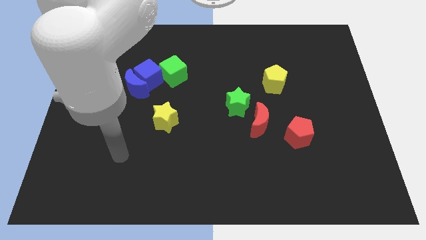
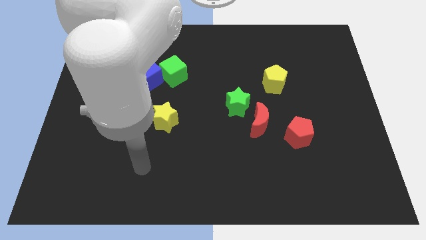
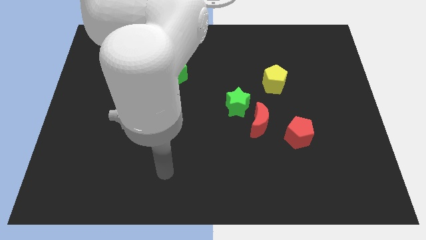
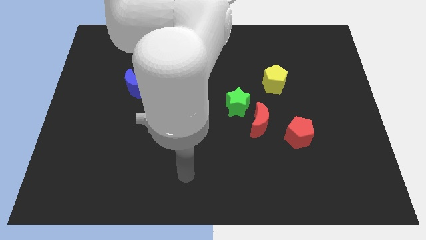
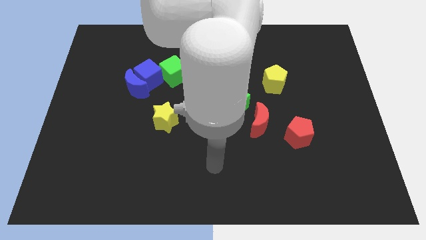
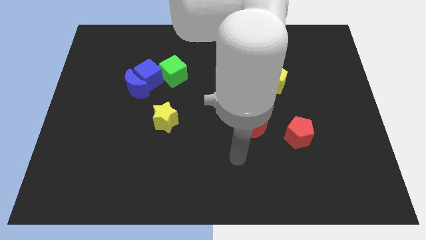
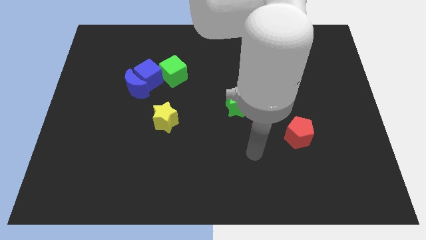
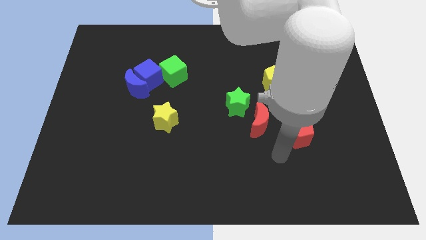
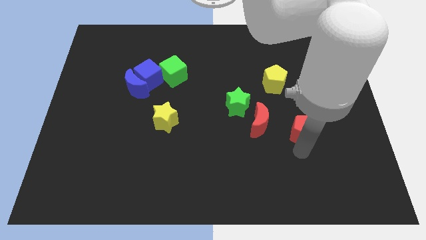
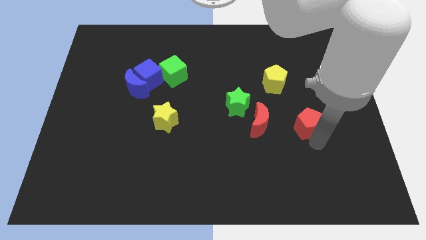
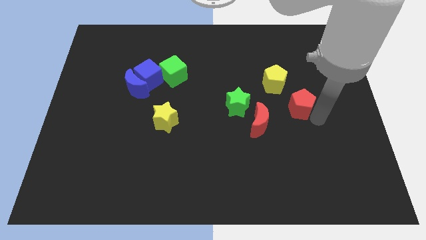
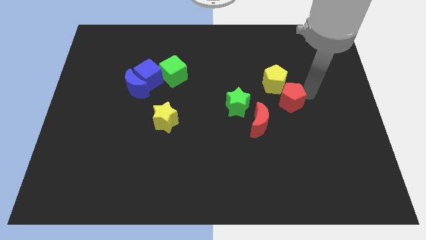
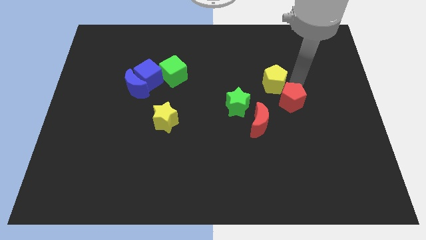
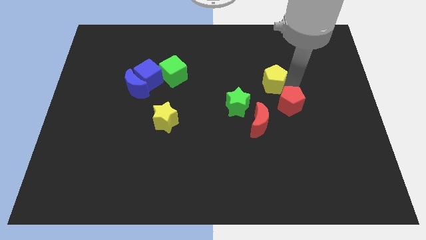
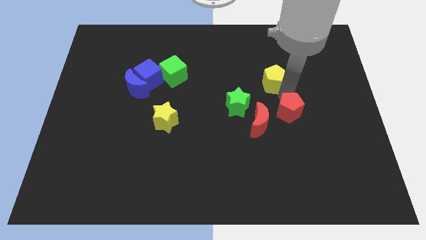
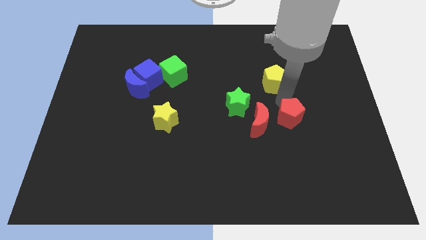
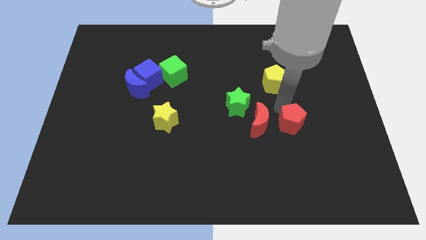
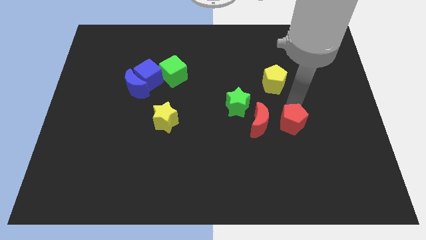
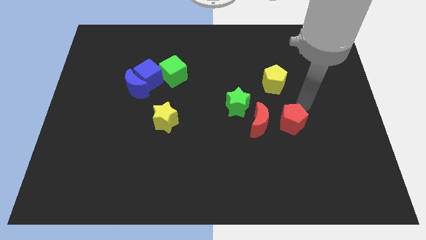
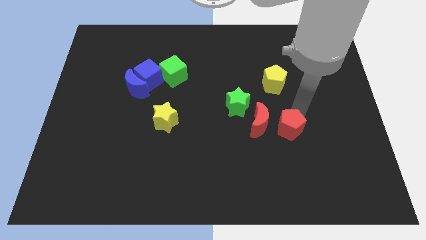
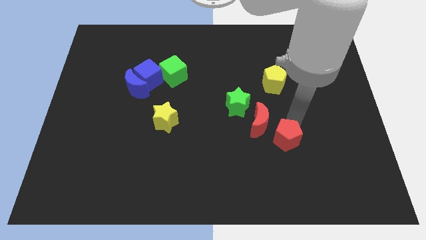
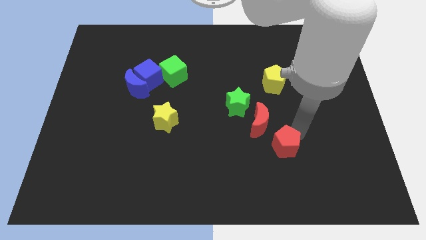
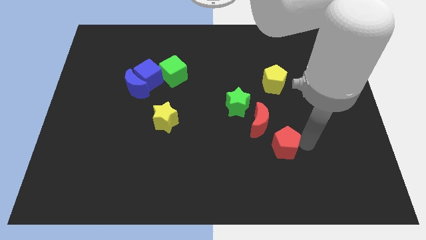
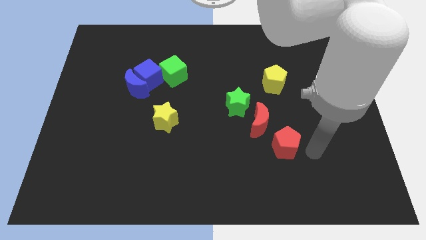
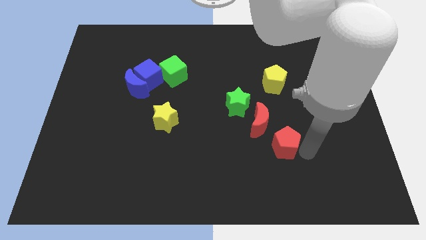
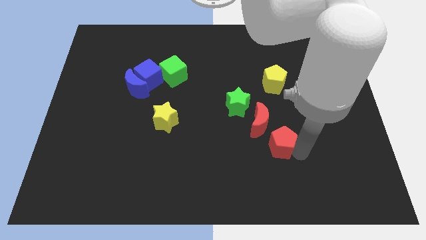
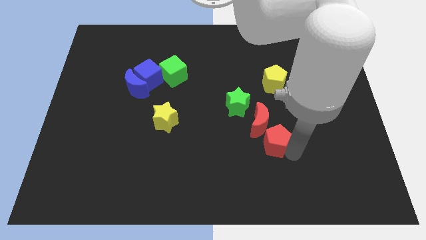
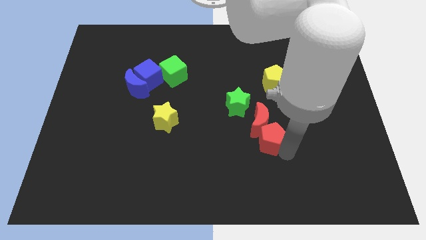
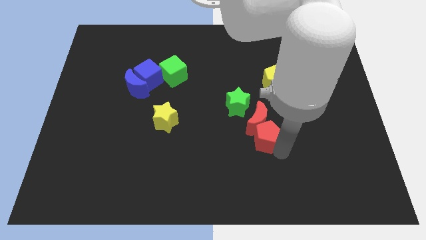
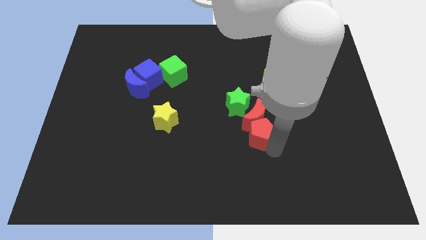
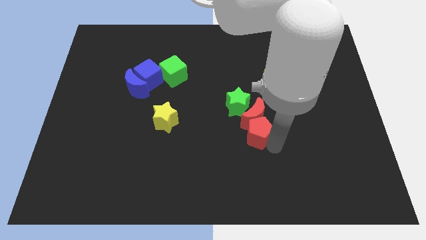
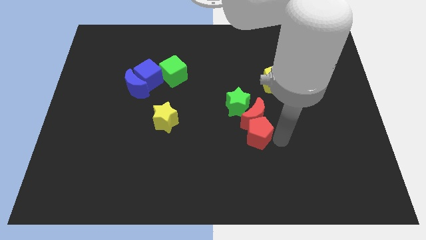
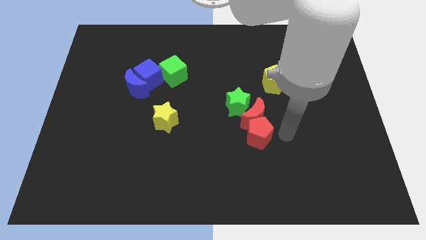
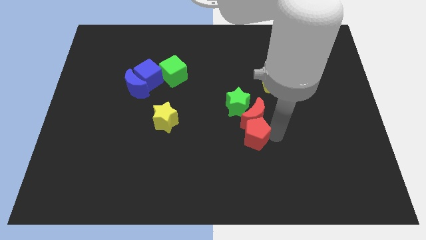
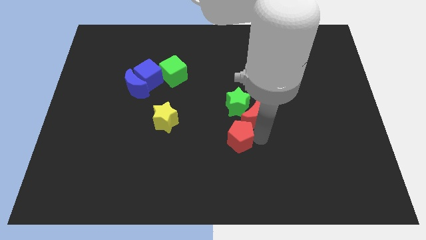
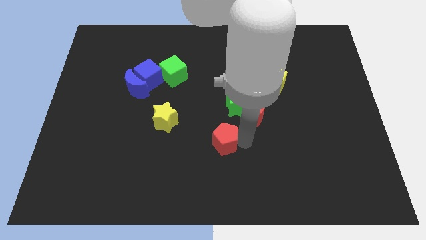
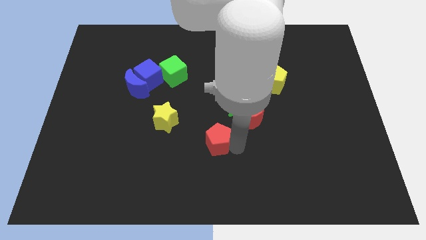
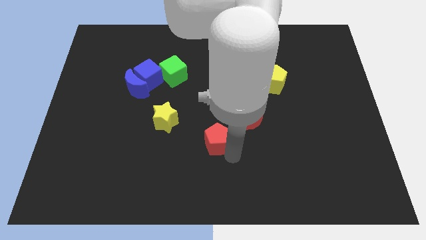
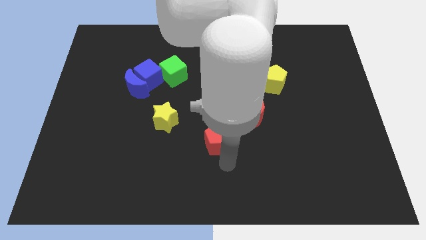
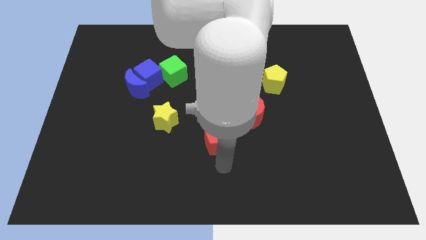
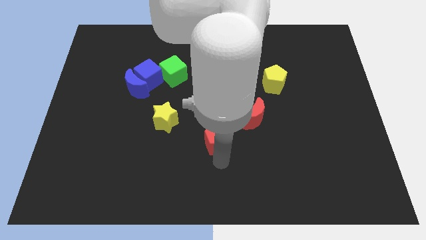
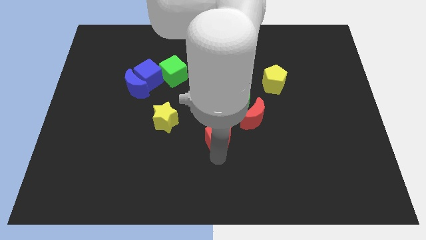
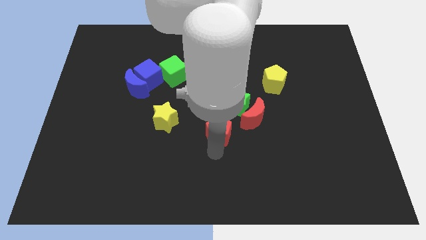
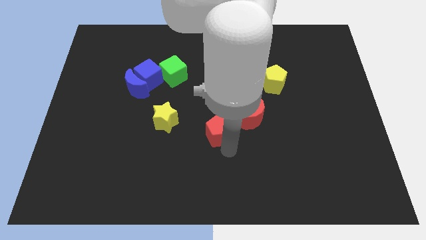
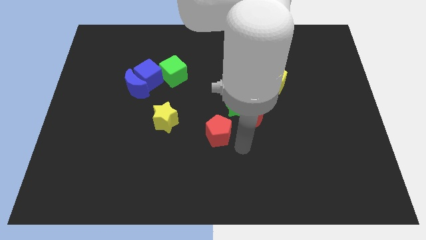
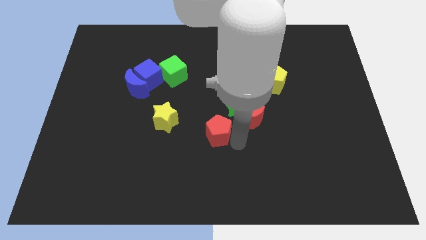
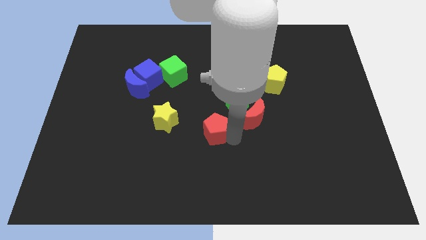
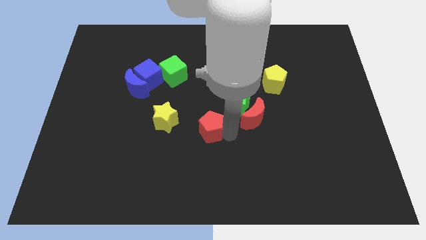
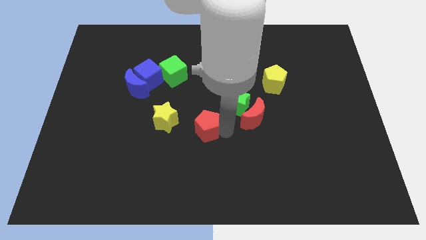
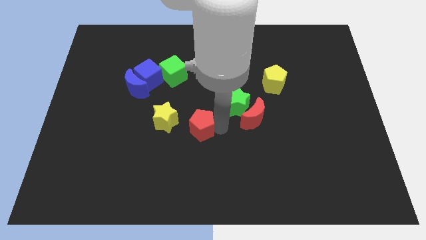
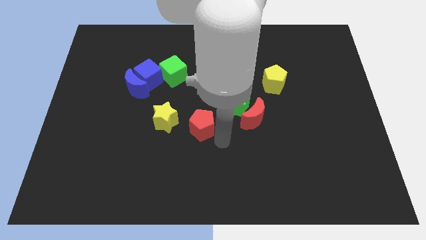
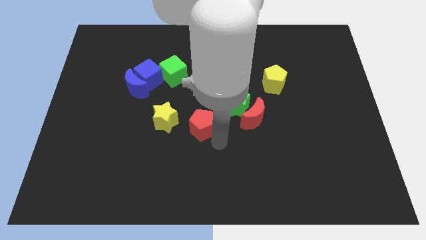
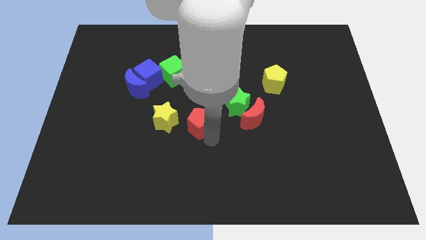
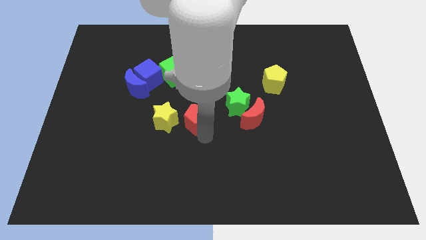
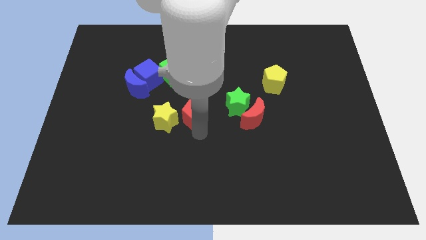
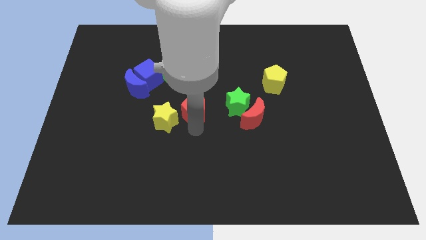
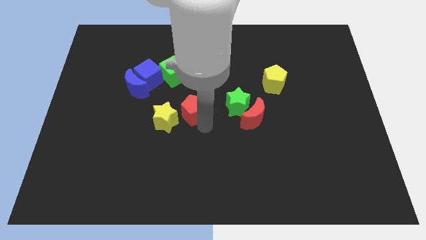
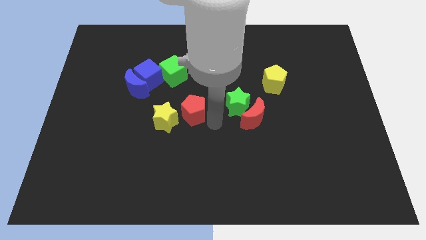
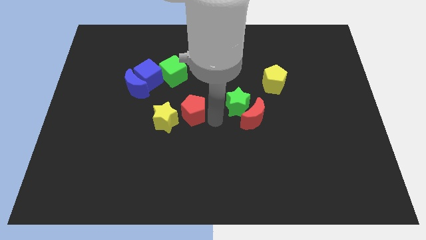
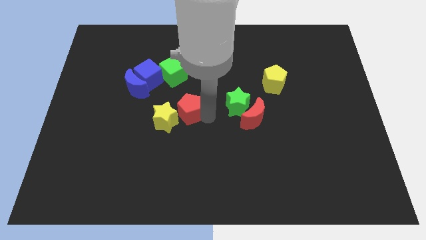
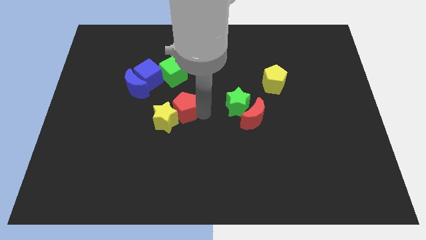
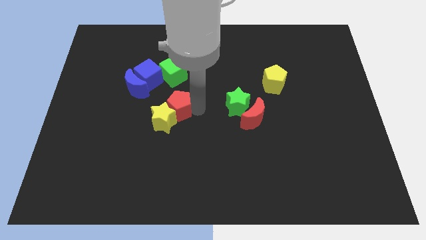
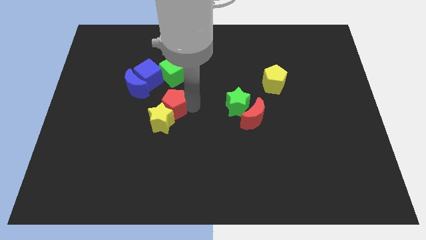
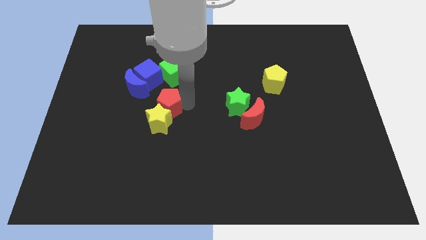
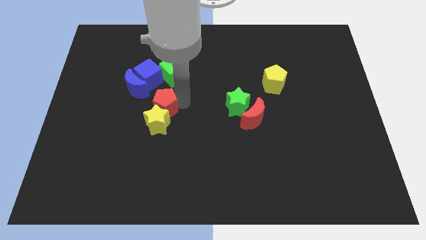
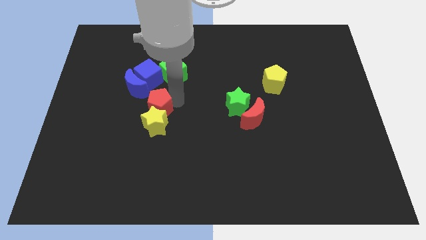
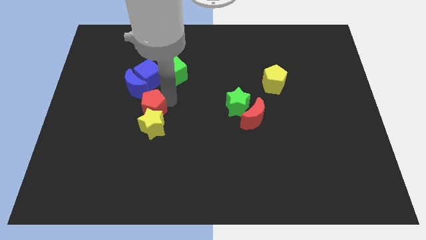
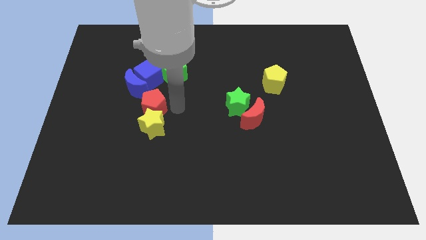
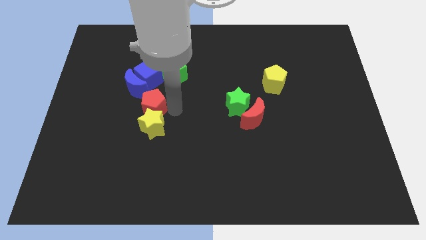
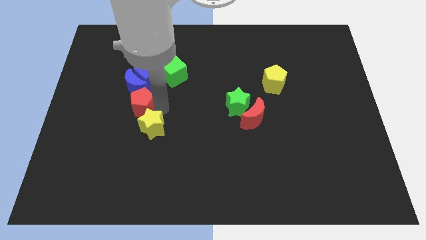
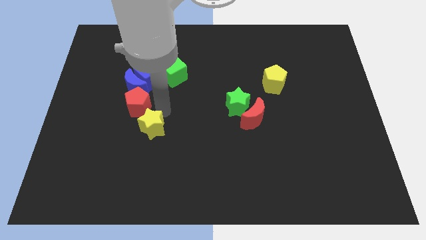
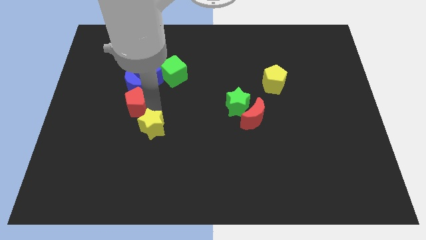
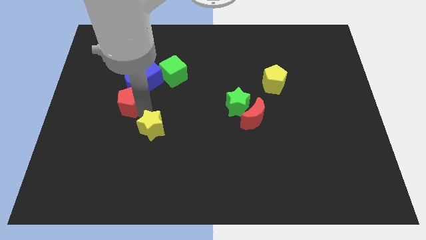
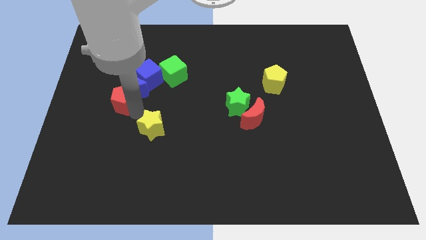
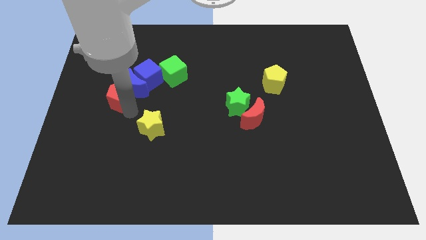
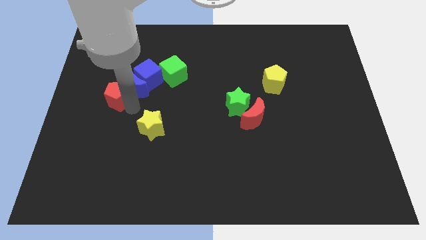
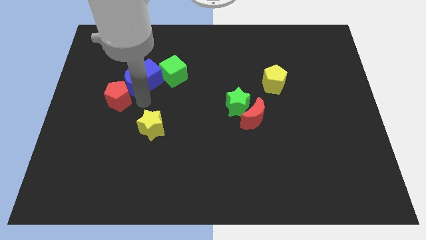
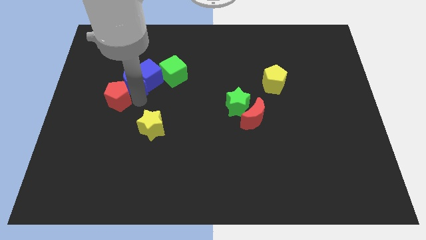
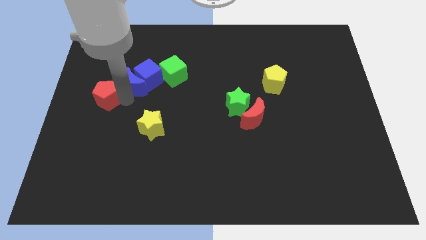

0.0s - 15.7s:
move the red pentagon to the center left

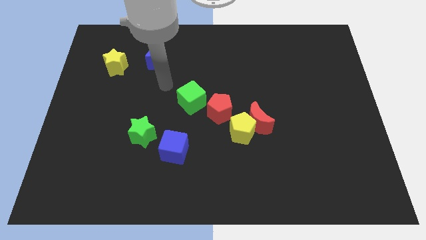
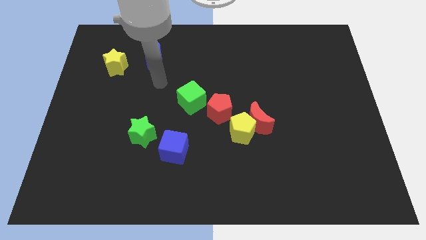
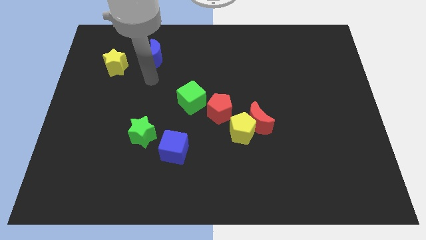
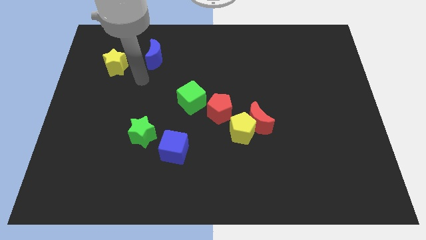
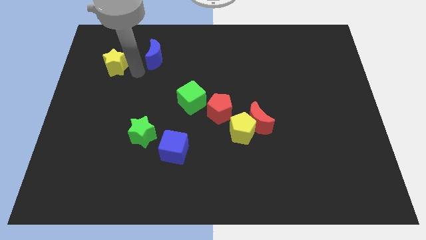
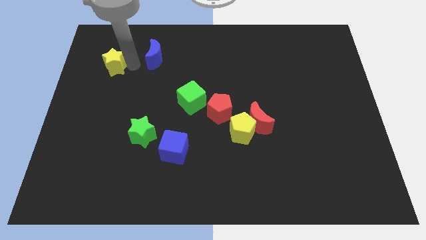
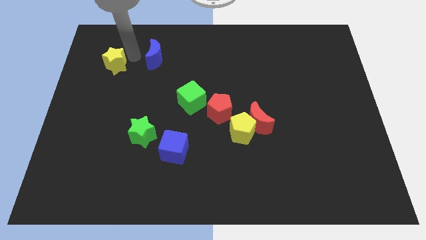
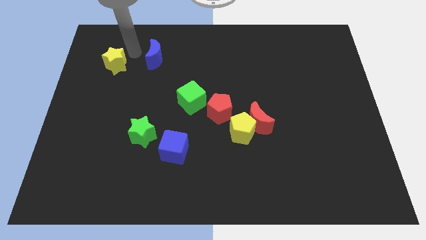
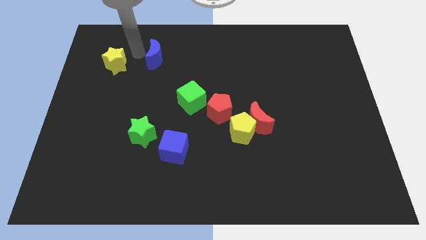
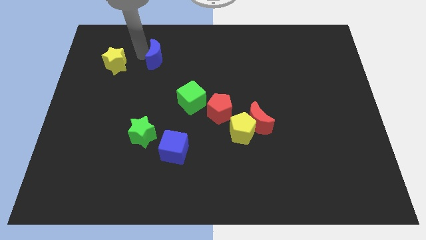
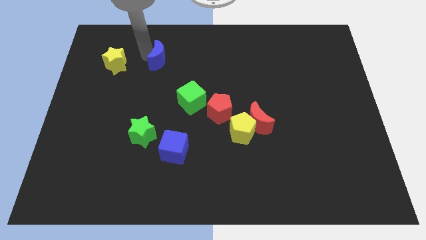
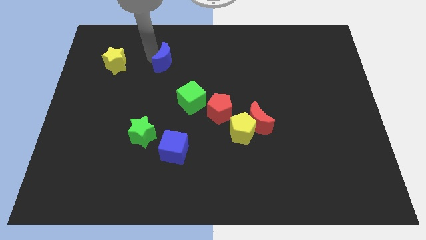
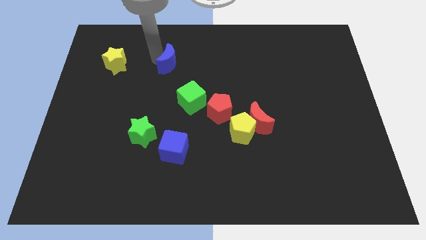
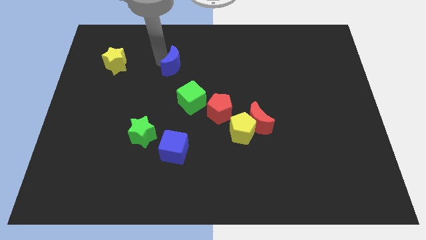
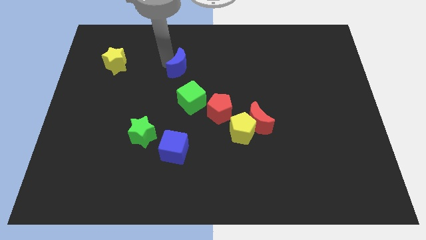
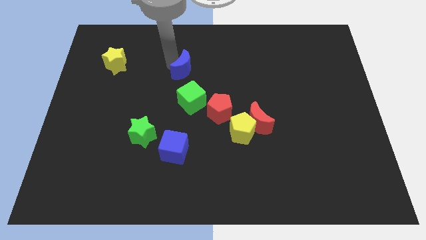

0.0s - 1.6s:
push the blue moon to the center
